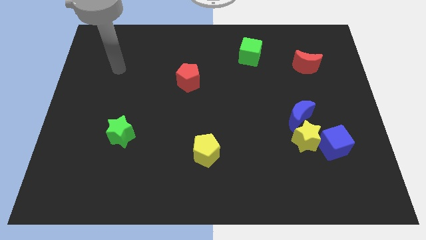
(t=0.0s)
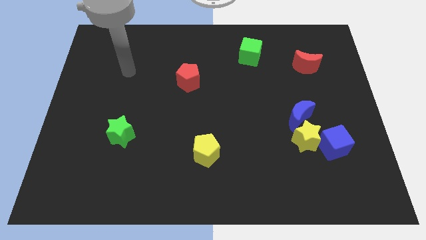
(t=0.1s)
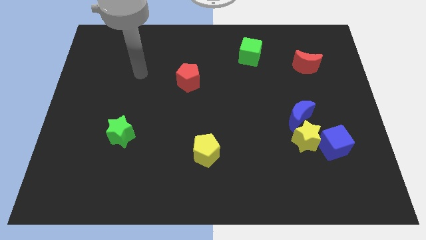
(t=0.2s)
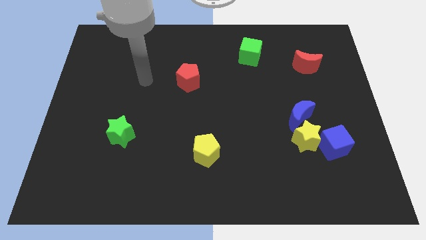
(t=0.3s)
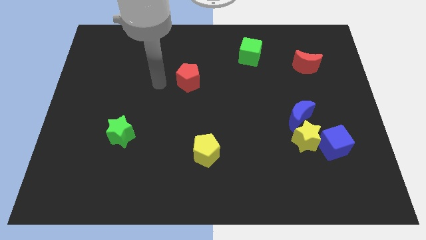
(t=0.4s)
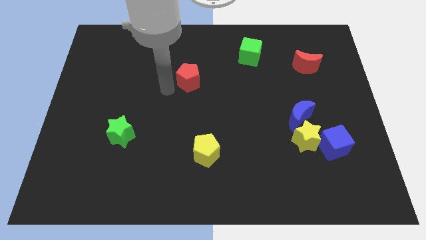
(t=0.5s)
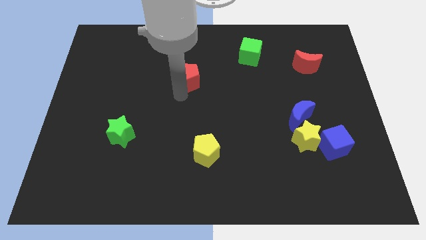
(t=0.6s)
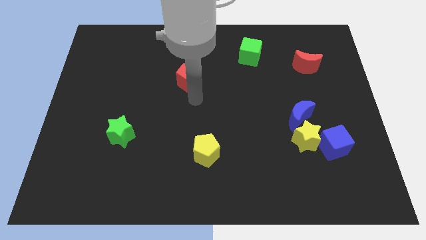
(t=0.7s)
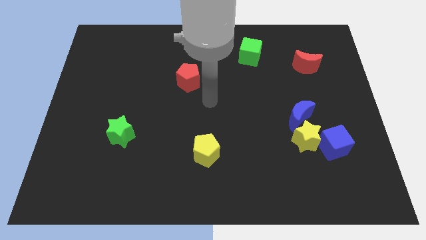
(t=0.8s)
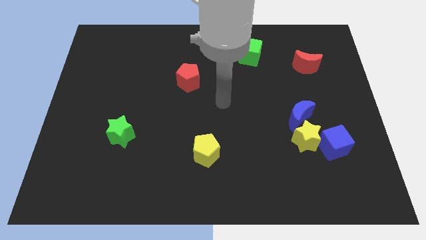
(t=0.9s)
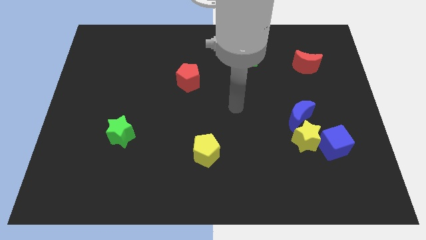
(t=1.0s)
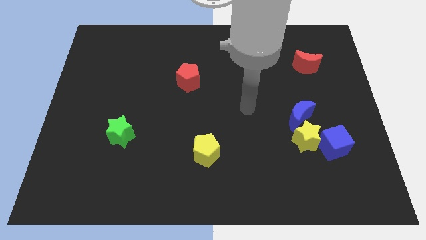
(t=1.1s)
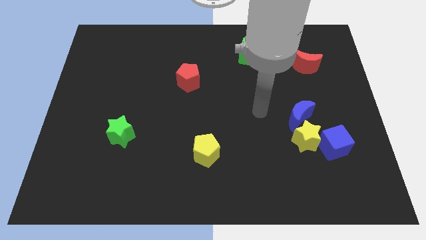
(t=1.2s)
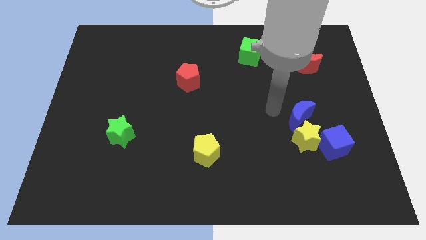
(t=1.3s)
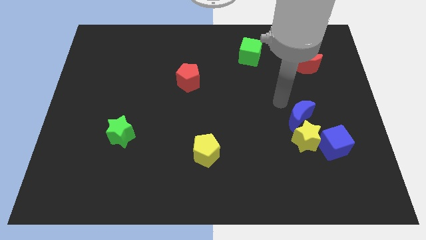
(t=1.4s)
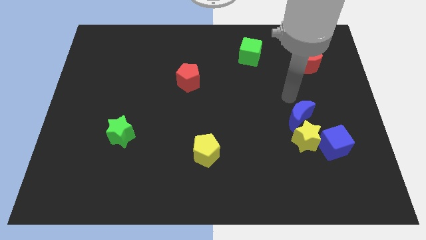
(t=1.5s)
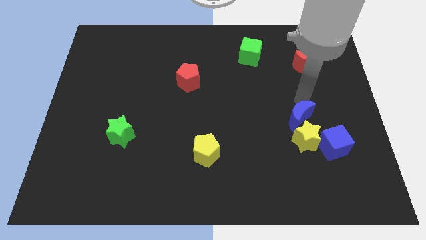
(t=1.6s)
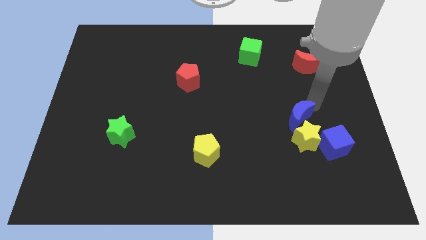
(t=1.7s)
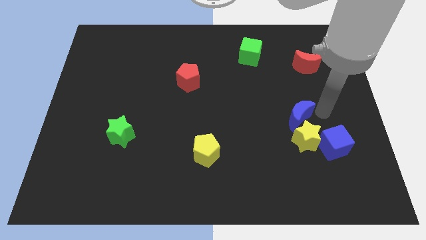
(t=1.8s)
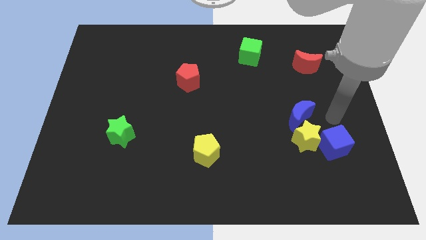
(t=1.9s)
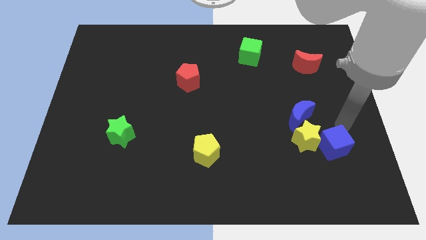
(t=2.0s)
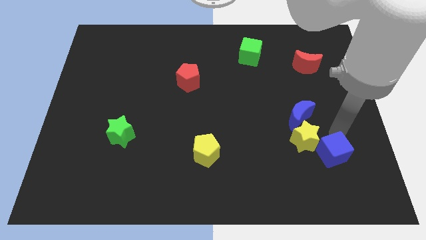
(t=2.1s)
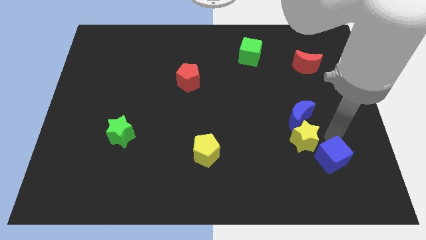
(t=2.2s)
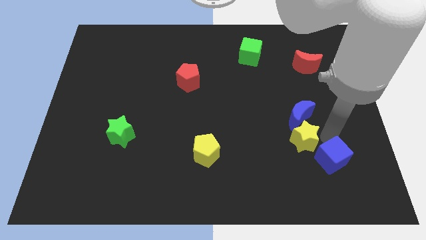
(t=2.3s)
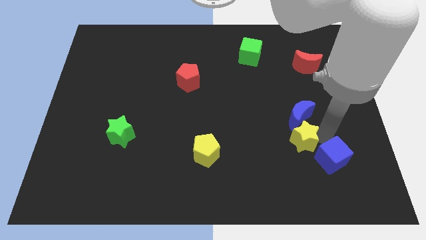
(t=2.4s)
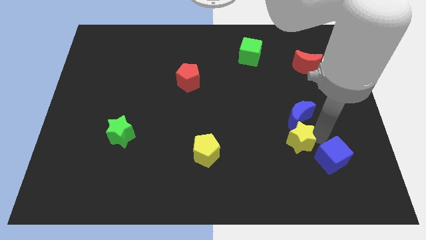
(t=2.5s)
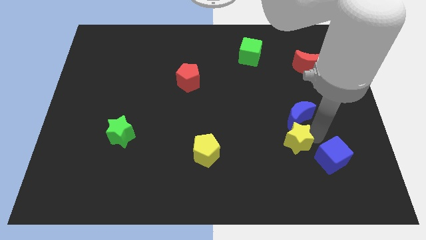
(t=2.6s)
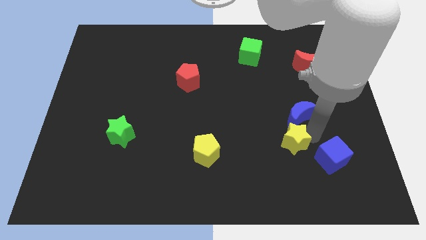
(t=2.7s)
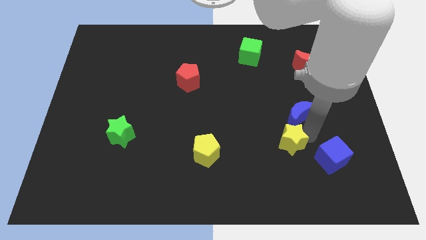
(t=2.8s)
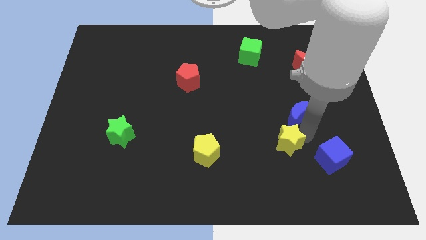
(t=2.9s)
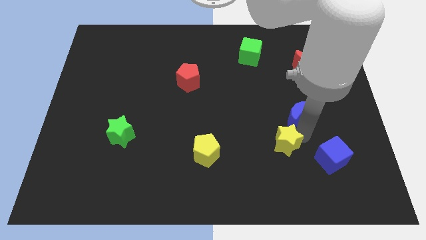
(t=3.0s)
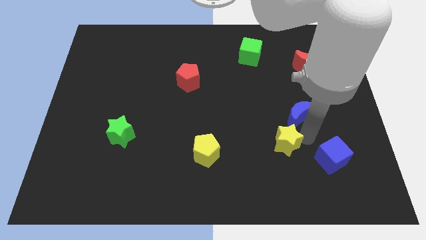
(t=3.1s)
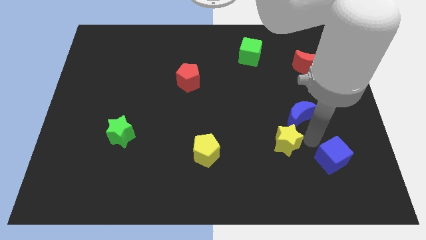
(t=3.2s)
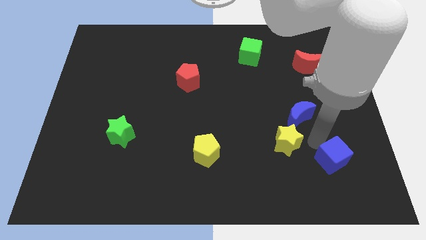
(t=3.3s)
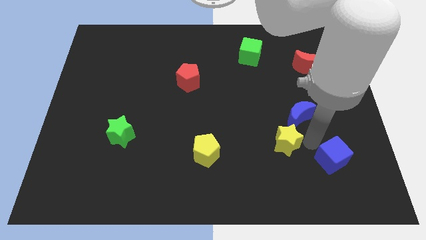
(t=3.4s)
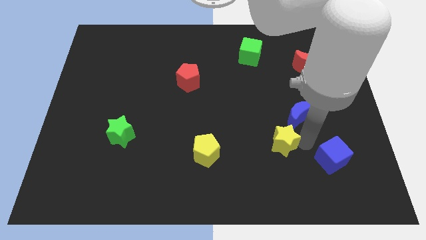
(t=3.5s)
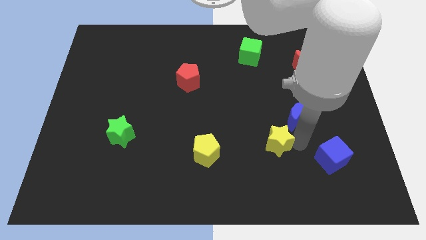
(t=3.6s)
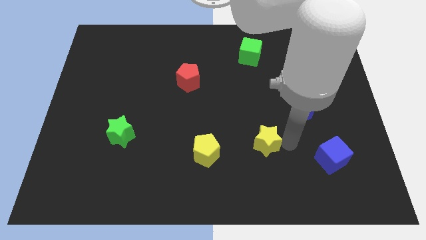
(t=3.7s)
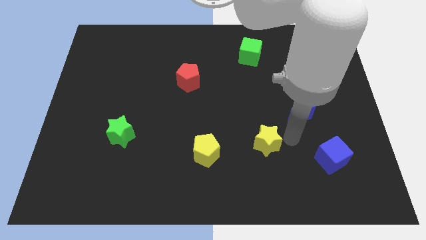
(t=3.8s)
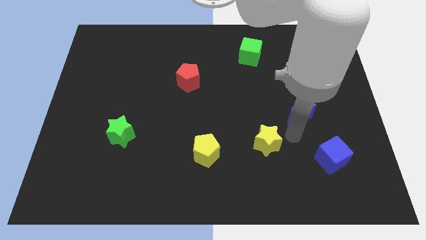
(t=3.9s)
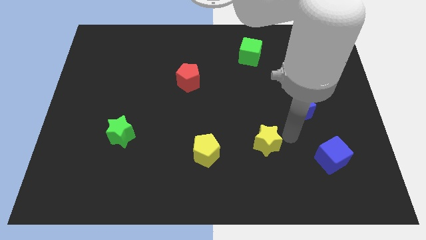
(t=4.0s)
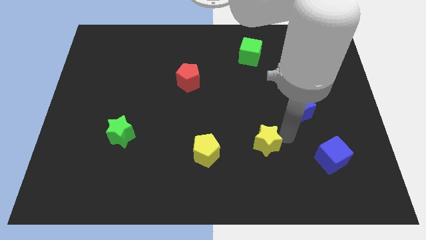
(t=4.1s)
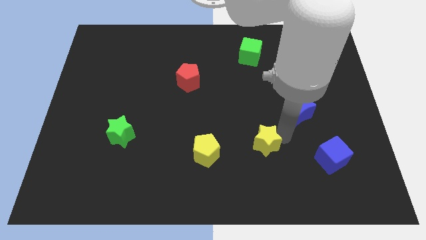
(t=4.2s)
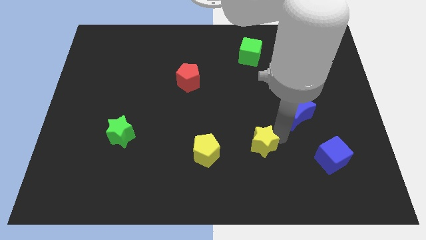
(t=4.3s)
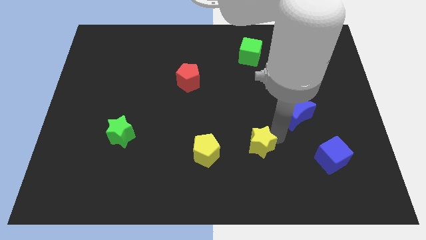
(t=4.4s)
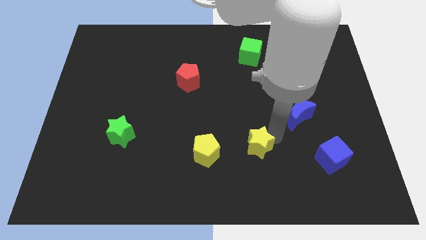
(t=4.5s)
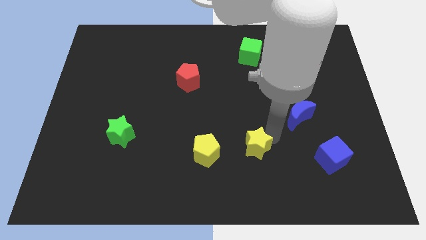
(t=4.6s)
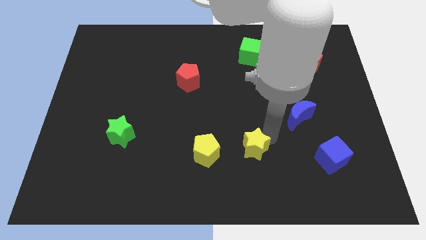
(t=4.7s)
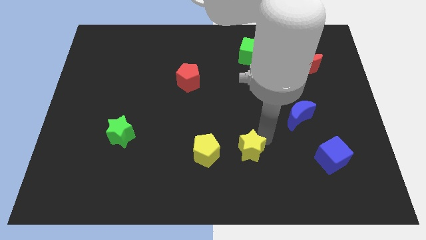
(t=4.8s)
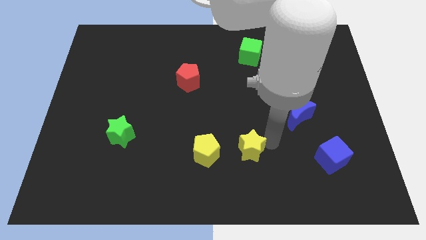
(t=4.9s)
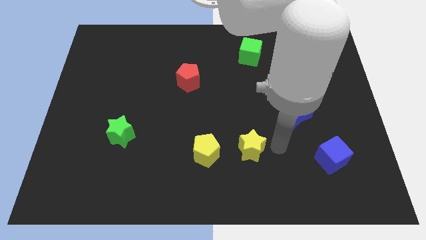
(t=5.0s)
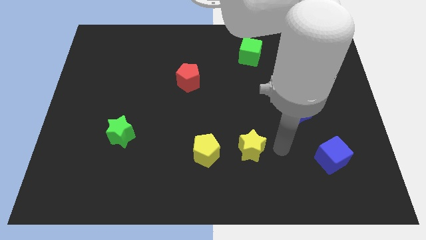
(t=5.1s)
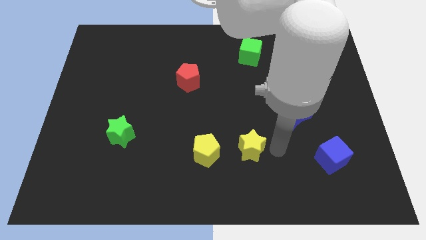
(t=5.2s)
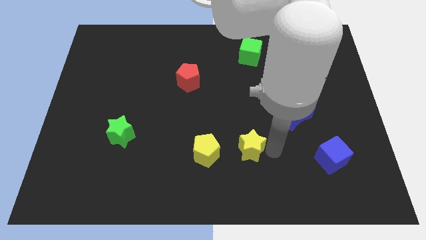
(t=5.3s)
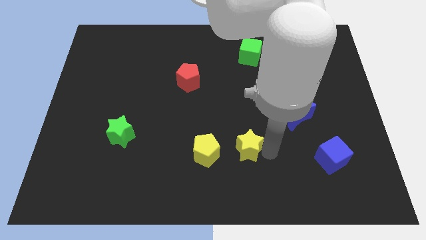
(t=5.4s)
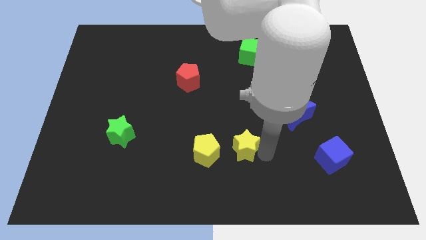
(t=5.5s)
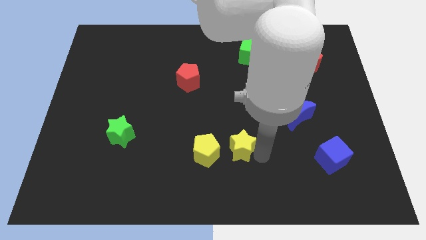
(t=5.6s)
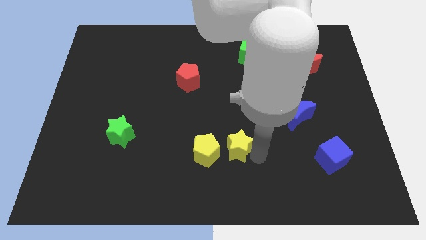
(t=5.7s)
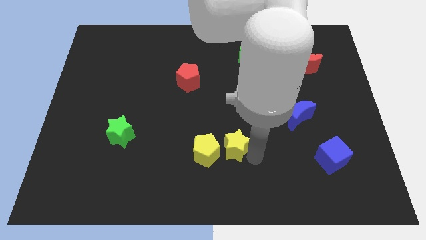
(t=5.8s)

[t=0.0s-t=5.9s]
slide the yellow star towards the yellow pentagon

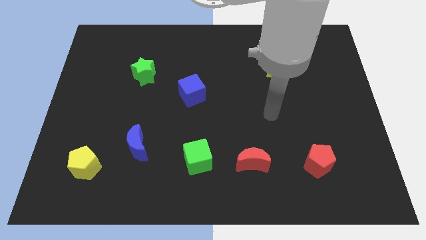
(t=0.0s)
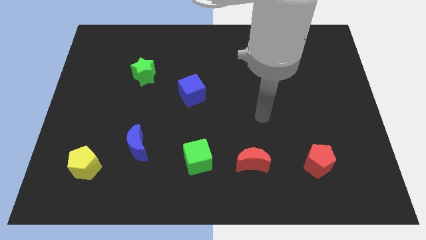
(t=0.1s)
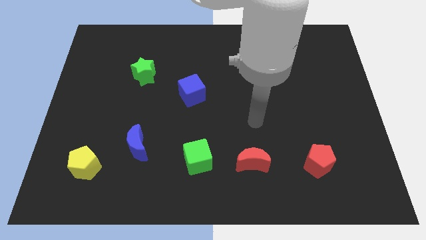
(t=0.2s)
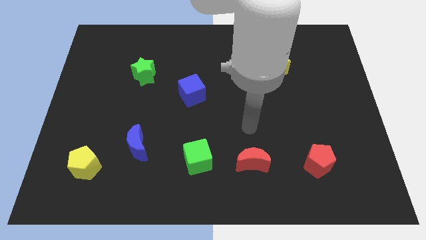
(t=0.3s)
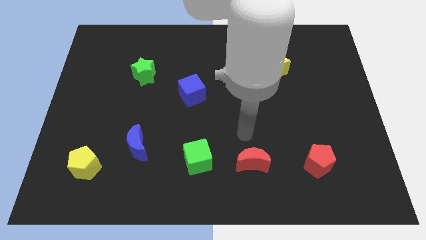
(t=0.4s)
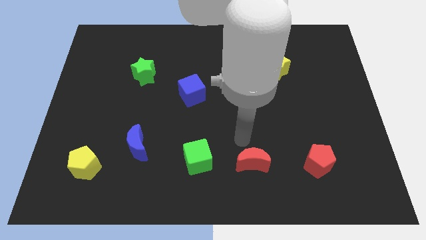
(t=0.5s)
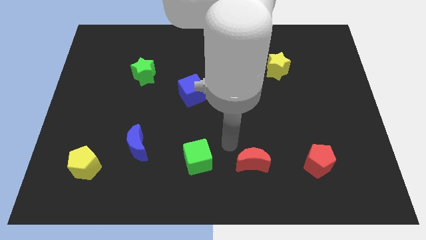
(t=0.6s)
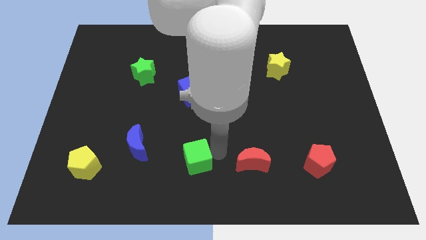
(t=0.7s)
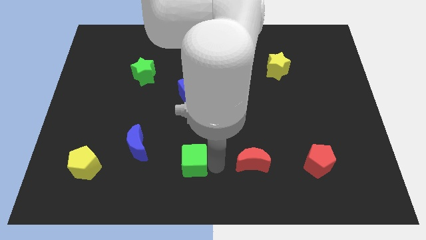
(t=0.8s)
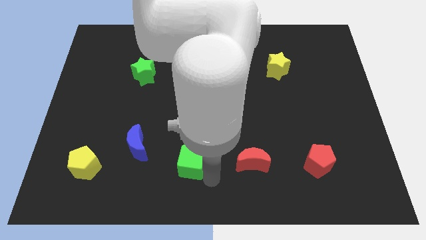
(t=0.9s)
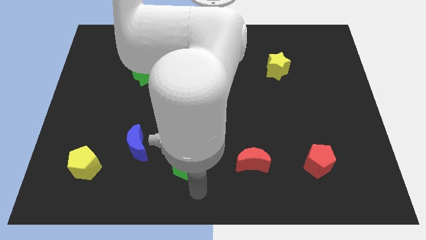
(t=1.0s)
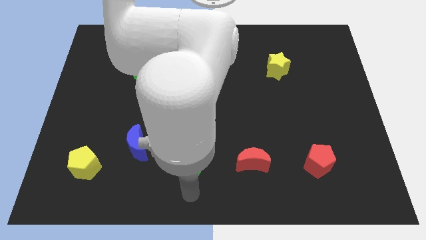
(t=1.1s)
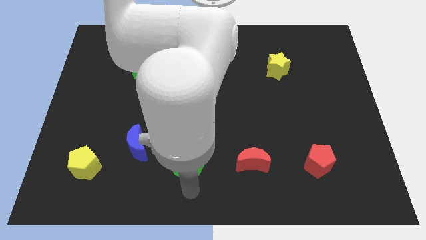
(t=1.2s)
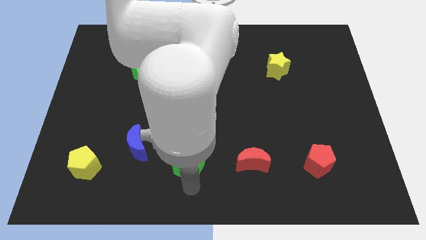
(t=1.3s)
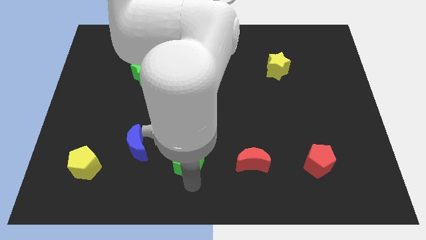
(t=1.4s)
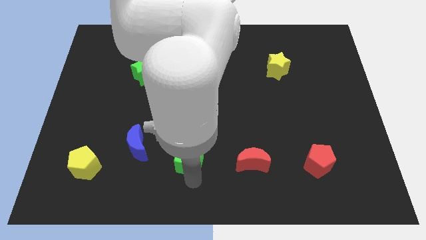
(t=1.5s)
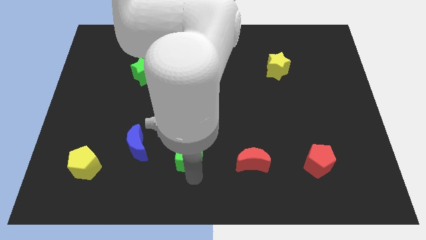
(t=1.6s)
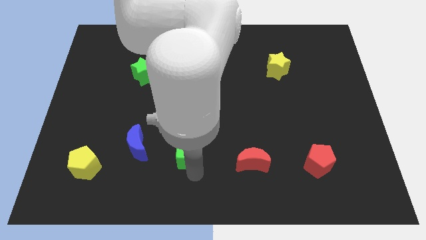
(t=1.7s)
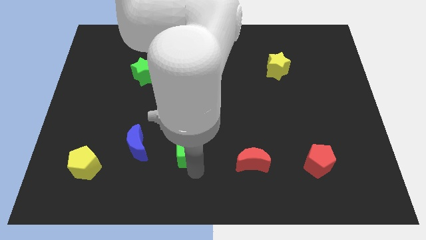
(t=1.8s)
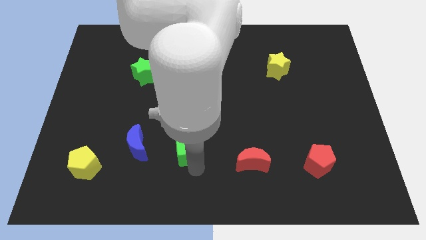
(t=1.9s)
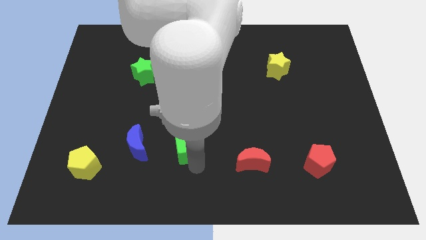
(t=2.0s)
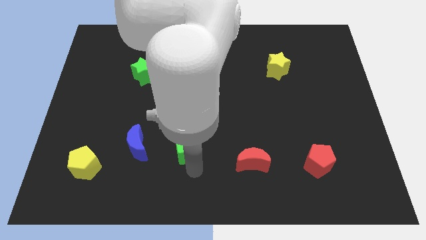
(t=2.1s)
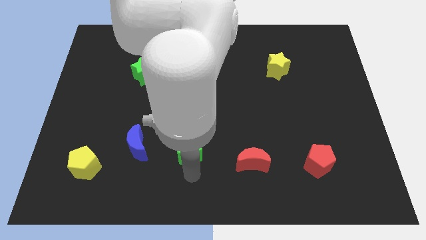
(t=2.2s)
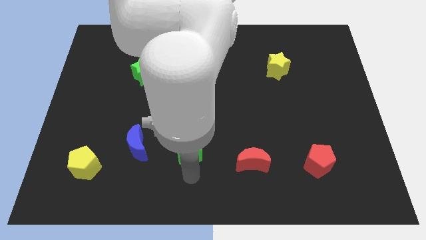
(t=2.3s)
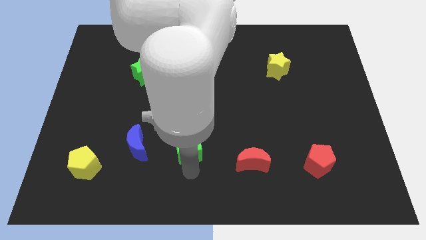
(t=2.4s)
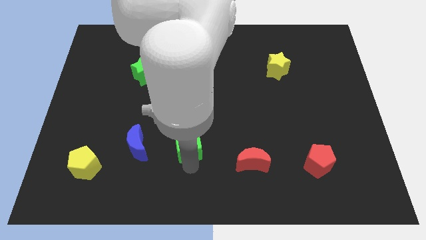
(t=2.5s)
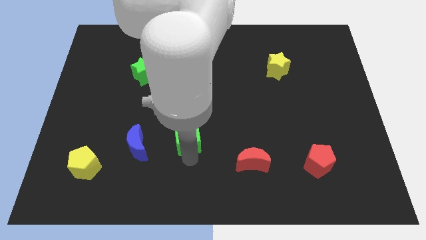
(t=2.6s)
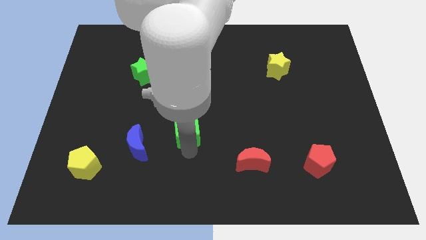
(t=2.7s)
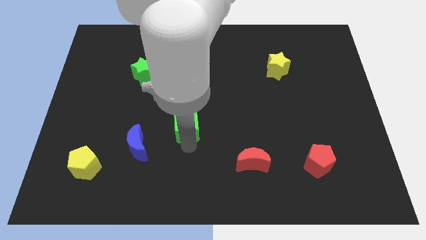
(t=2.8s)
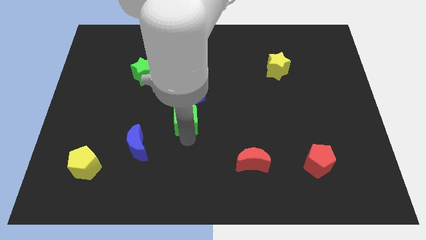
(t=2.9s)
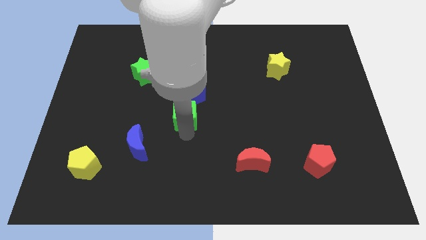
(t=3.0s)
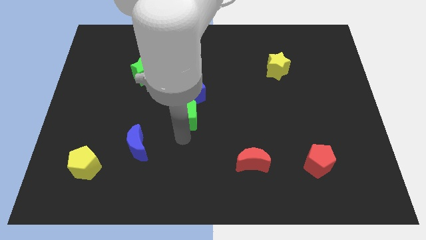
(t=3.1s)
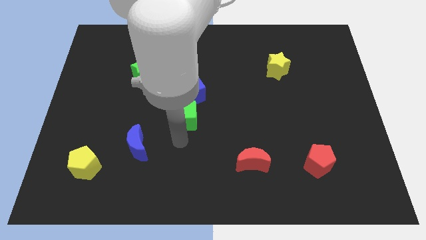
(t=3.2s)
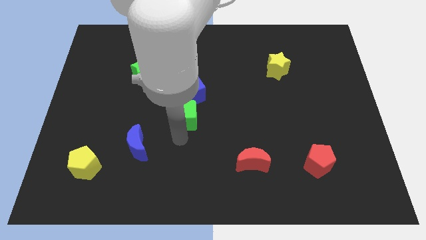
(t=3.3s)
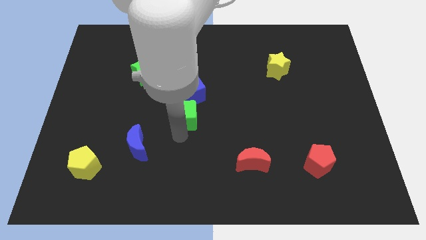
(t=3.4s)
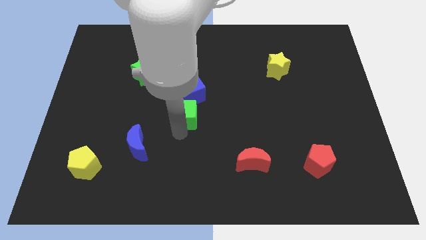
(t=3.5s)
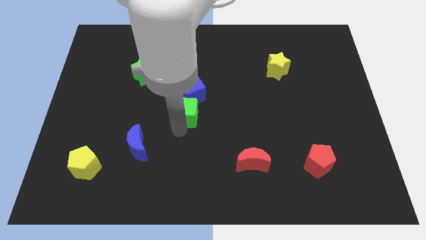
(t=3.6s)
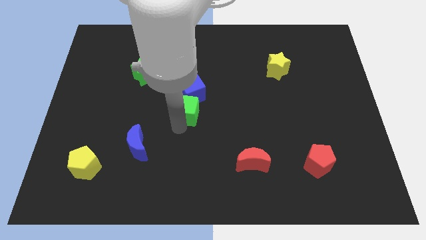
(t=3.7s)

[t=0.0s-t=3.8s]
push the green cube close to the blue cube
